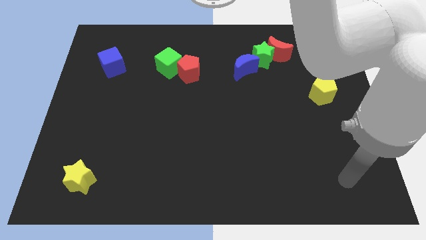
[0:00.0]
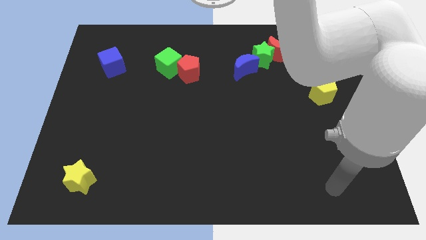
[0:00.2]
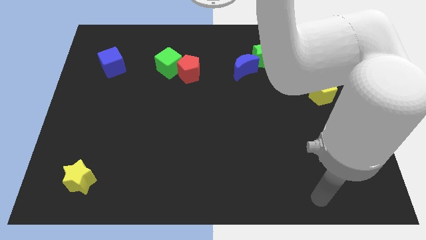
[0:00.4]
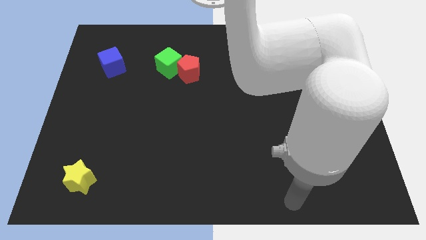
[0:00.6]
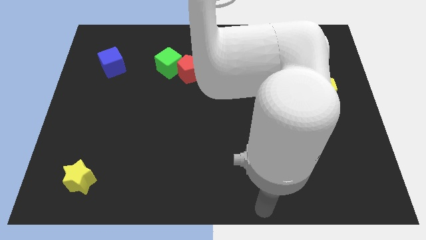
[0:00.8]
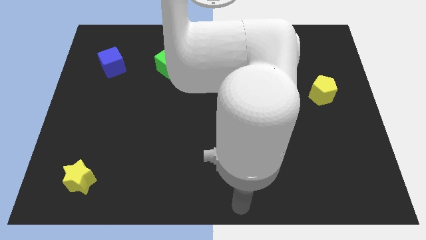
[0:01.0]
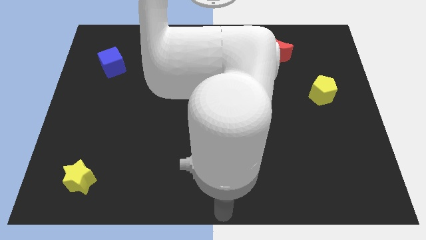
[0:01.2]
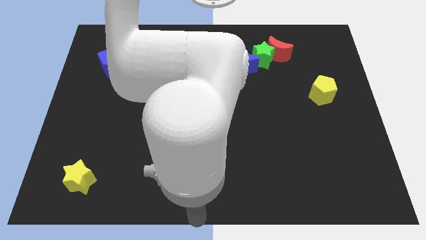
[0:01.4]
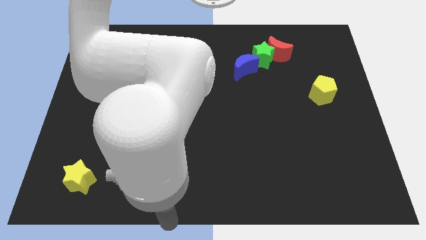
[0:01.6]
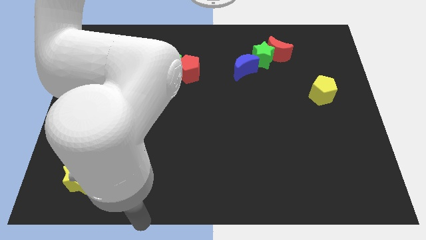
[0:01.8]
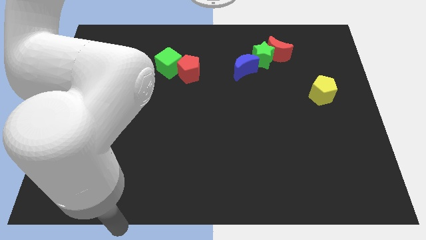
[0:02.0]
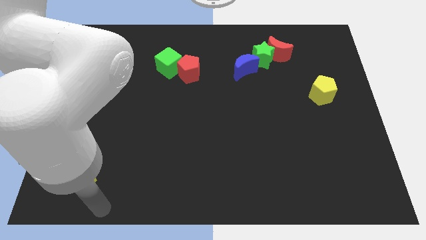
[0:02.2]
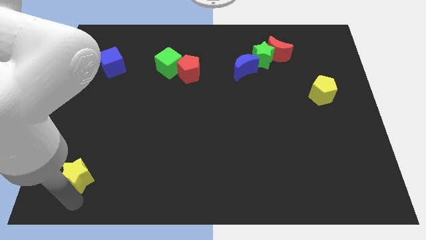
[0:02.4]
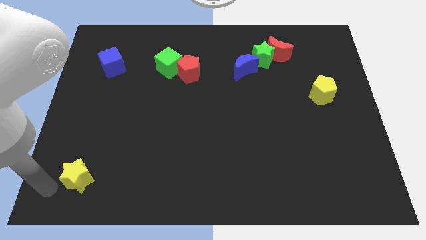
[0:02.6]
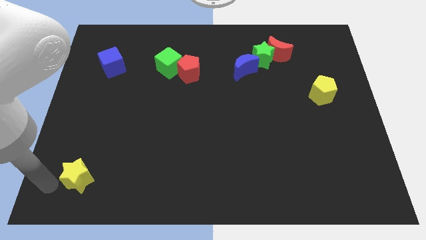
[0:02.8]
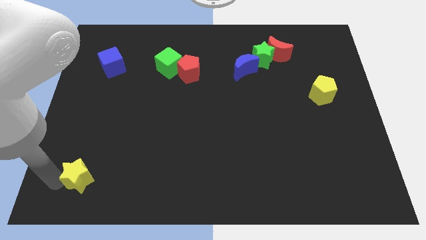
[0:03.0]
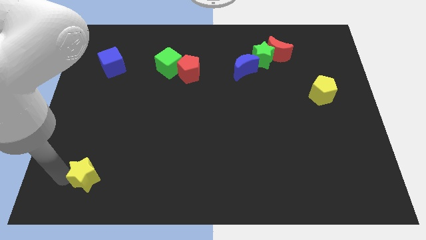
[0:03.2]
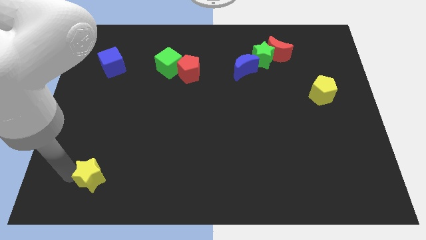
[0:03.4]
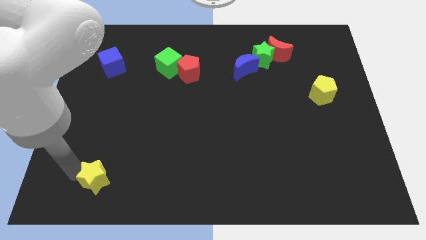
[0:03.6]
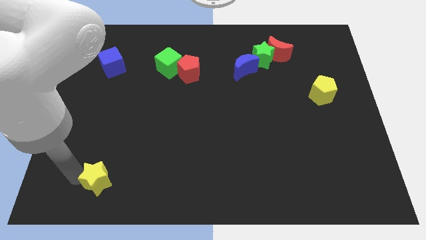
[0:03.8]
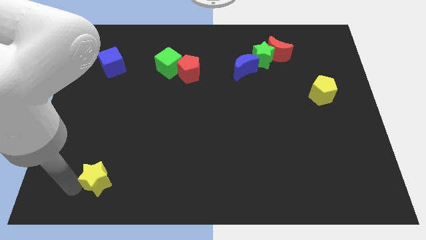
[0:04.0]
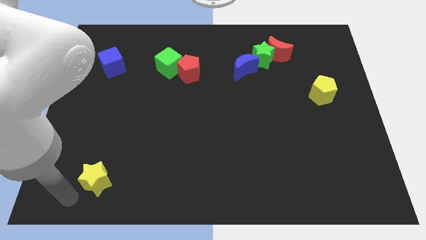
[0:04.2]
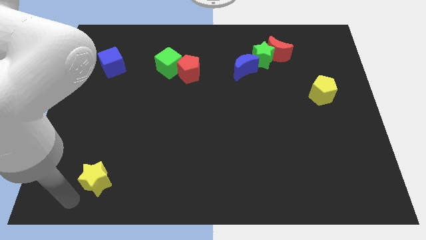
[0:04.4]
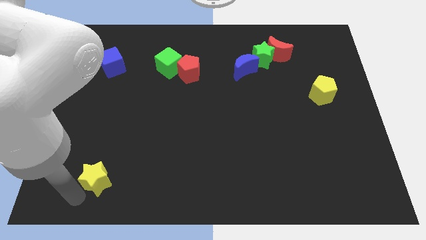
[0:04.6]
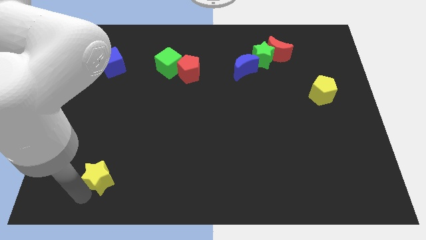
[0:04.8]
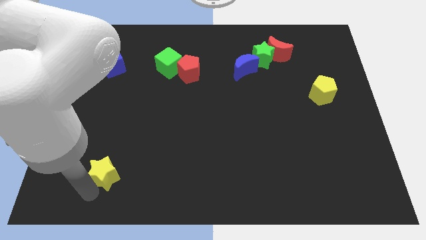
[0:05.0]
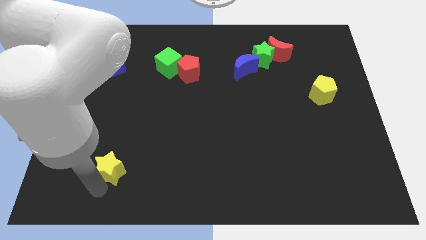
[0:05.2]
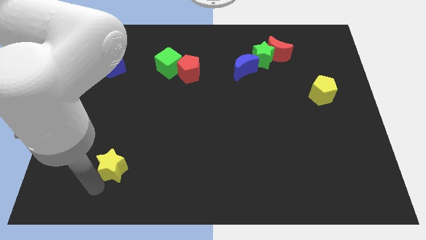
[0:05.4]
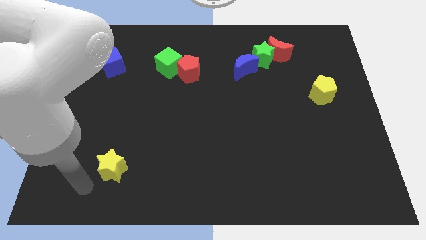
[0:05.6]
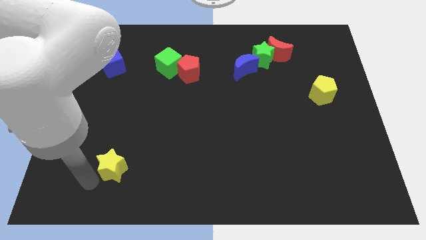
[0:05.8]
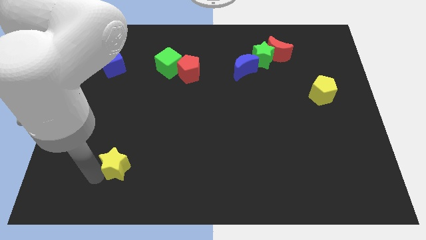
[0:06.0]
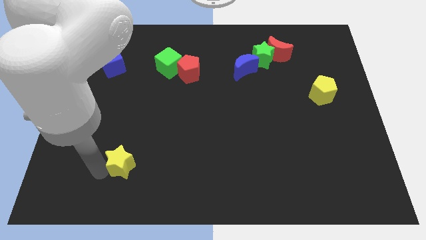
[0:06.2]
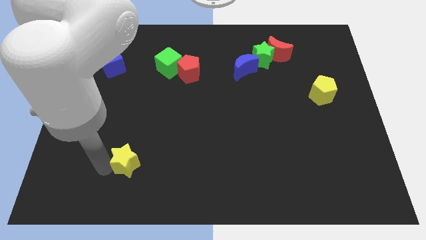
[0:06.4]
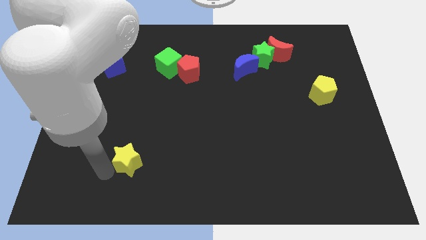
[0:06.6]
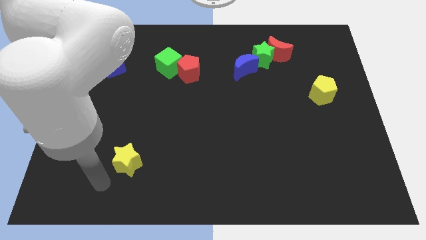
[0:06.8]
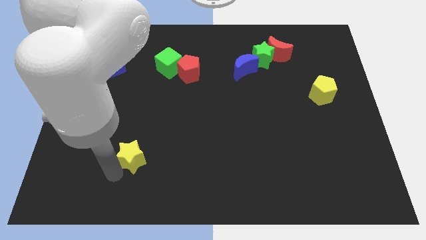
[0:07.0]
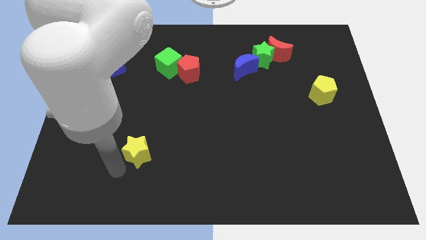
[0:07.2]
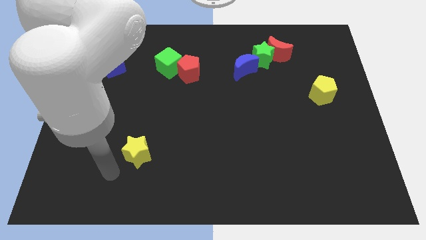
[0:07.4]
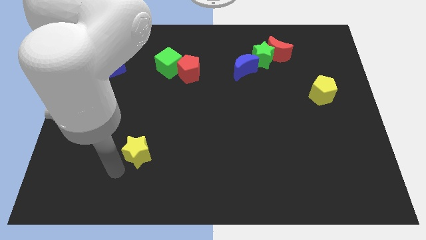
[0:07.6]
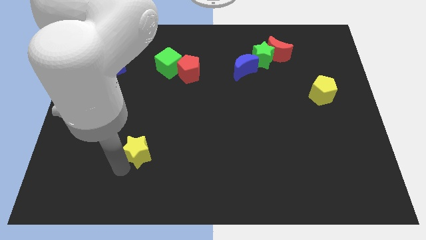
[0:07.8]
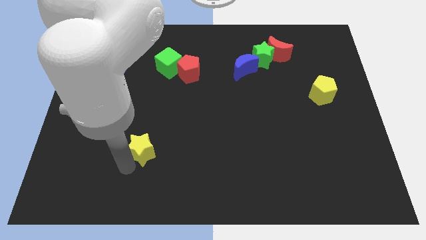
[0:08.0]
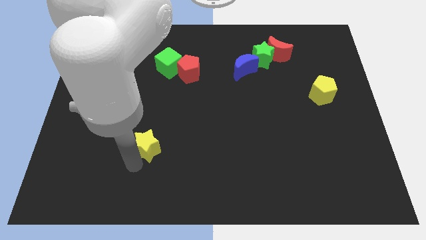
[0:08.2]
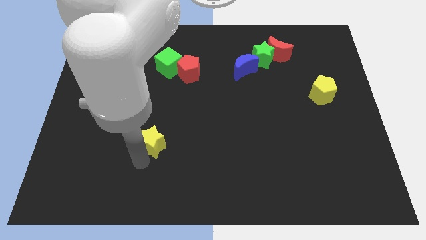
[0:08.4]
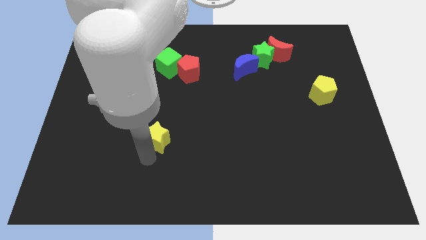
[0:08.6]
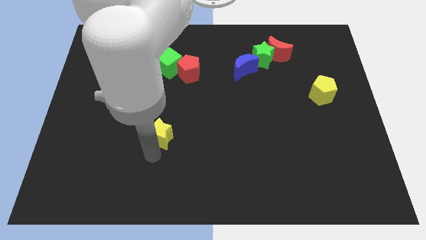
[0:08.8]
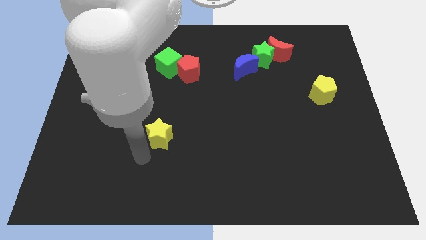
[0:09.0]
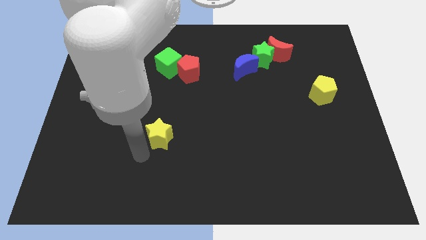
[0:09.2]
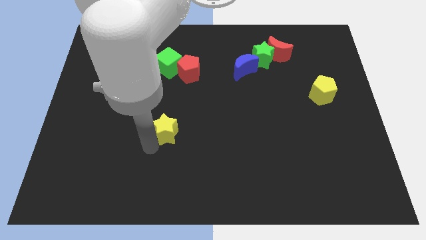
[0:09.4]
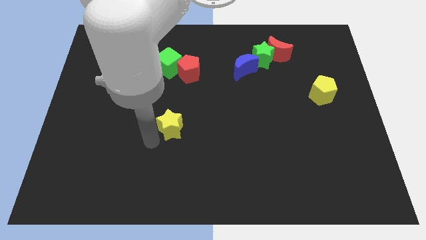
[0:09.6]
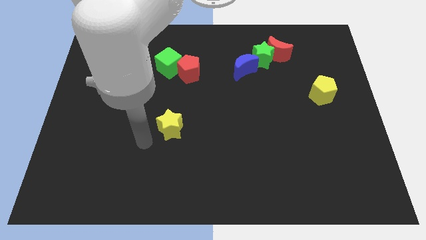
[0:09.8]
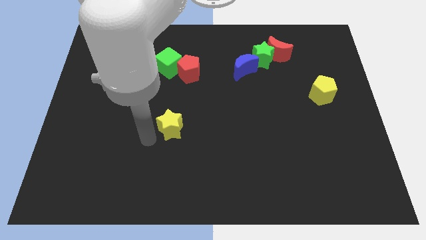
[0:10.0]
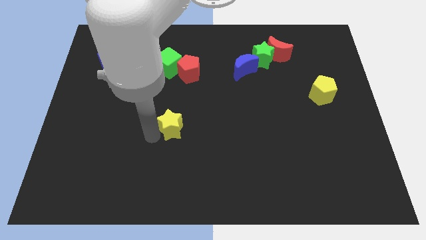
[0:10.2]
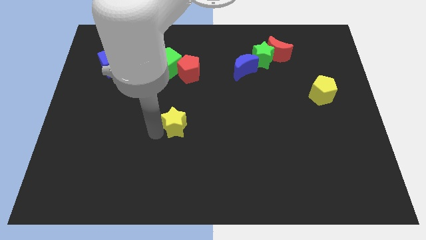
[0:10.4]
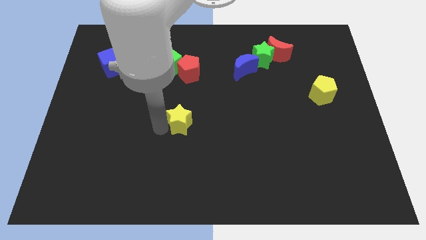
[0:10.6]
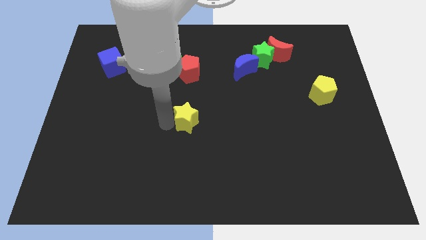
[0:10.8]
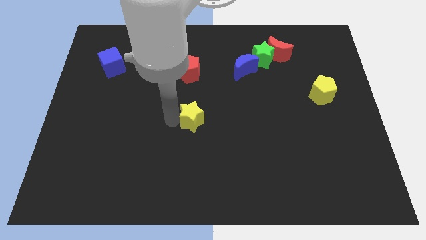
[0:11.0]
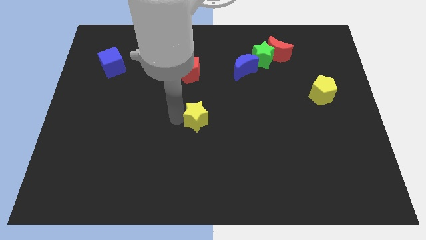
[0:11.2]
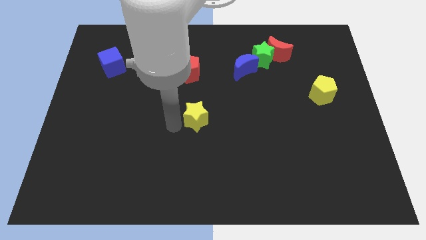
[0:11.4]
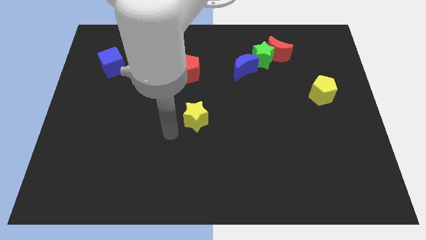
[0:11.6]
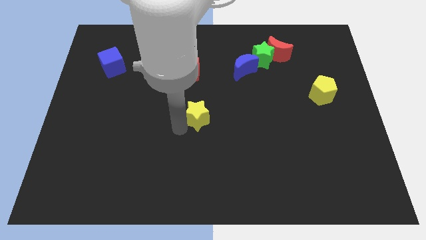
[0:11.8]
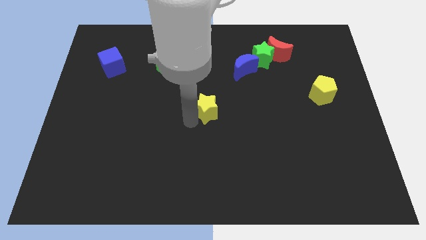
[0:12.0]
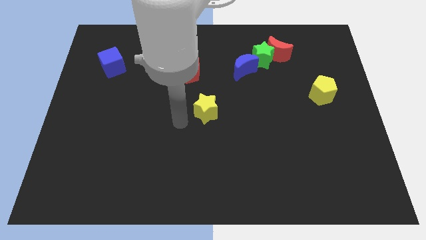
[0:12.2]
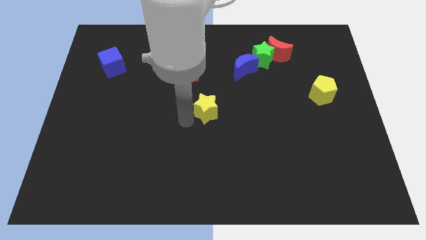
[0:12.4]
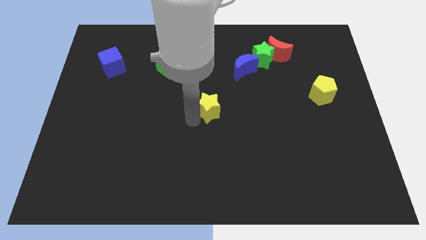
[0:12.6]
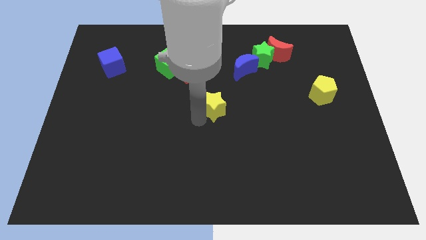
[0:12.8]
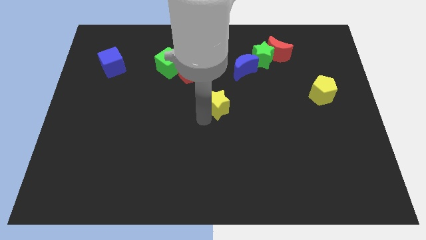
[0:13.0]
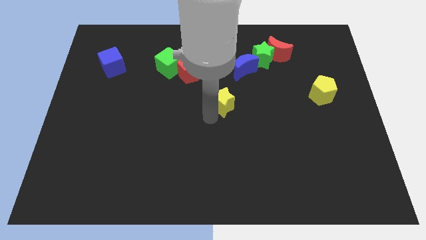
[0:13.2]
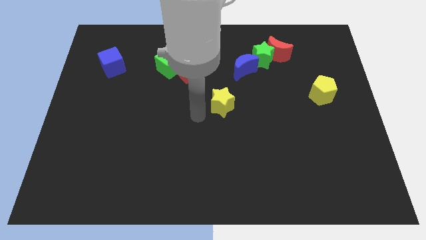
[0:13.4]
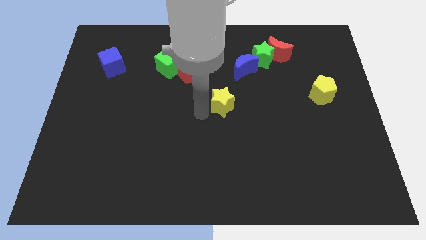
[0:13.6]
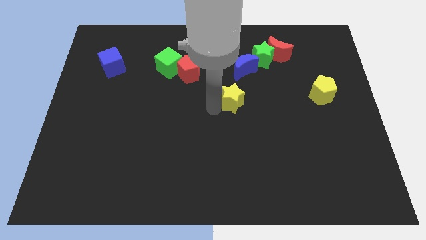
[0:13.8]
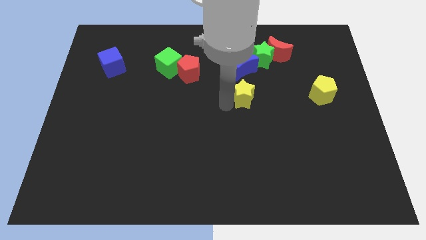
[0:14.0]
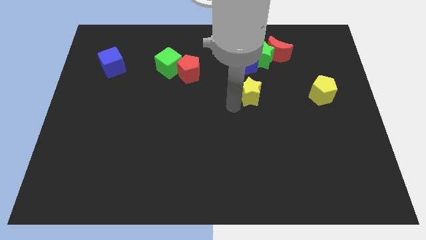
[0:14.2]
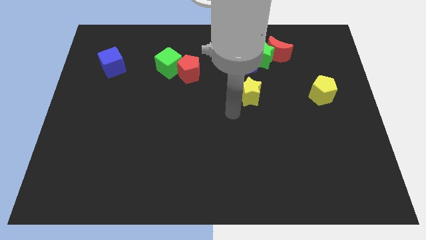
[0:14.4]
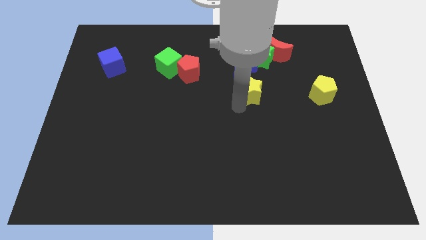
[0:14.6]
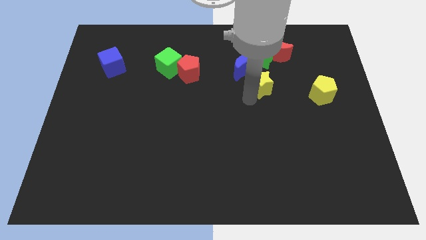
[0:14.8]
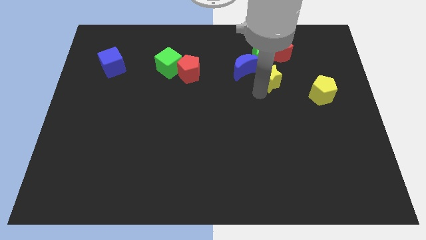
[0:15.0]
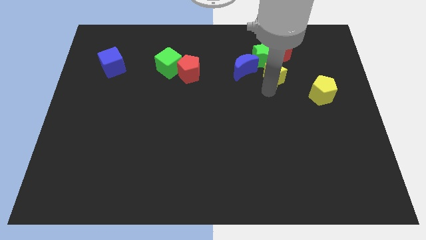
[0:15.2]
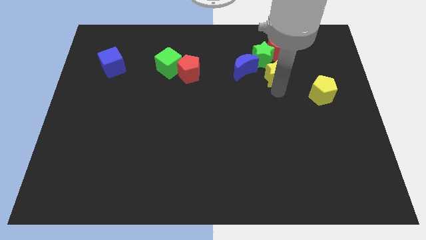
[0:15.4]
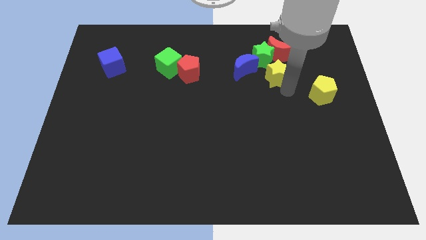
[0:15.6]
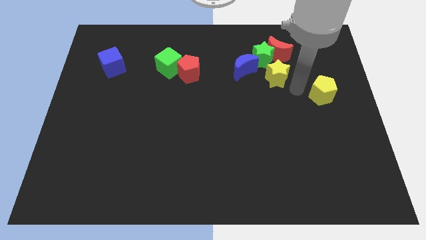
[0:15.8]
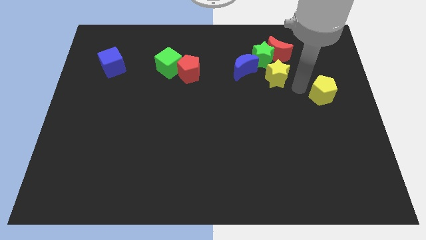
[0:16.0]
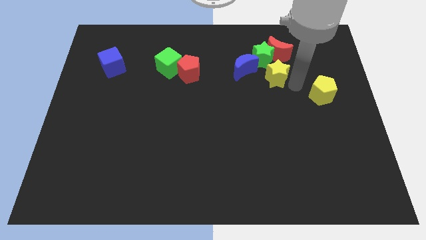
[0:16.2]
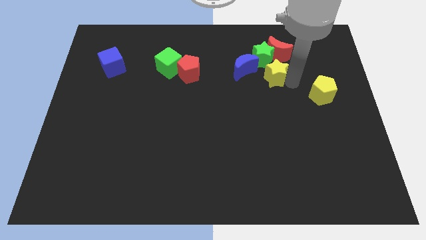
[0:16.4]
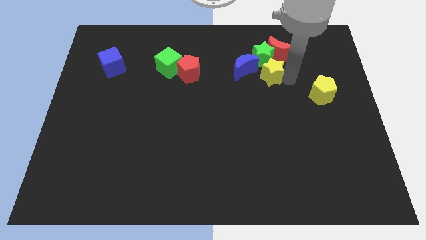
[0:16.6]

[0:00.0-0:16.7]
put the yellow star close to the green star
